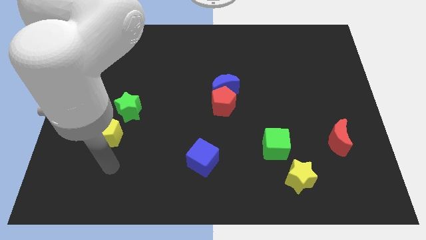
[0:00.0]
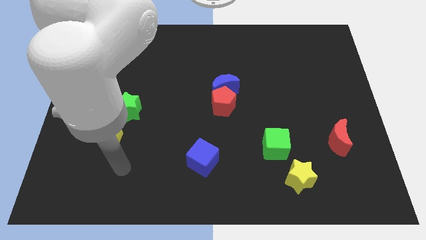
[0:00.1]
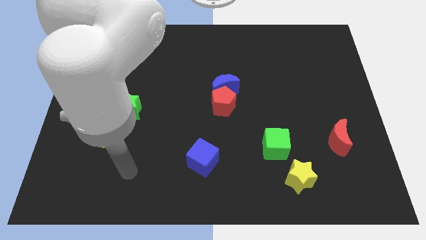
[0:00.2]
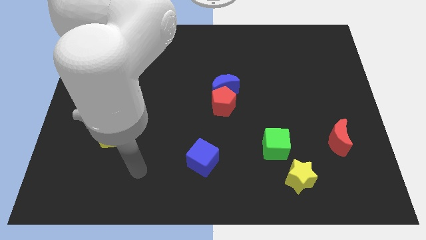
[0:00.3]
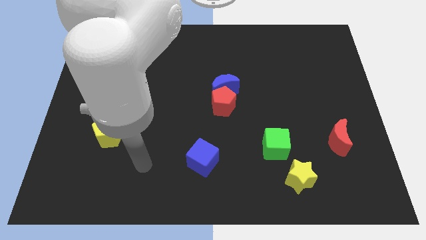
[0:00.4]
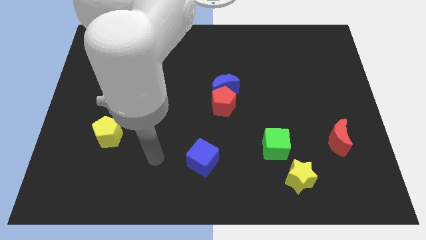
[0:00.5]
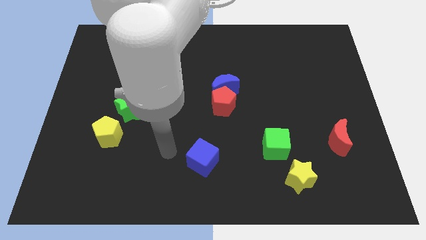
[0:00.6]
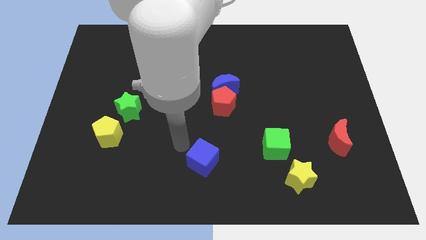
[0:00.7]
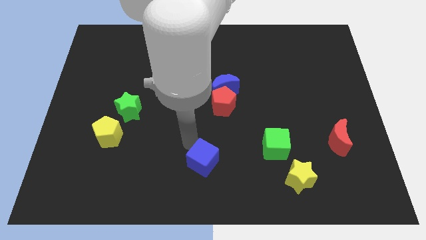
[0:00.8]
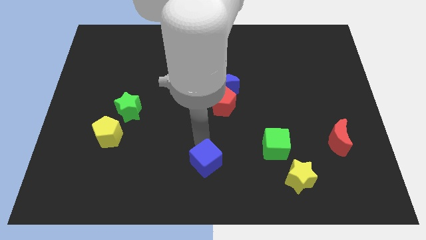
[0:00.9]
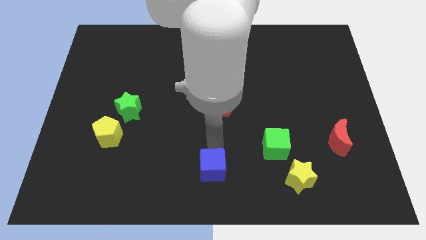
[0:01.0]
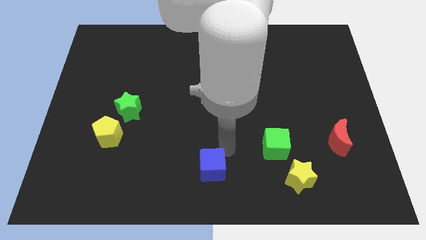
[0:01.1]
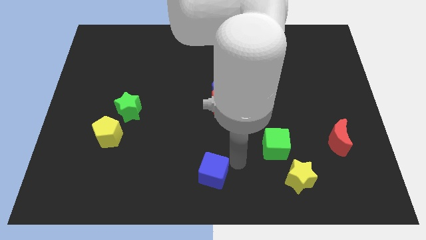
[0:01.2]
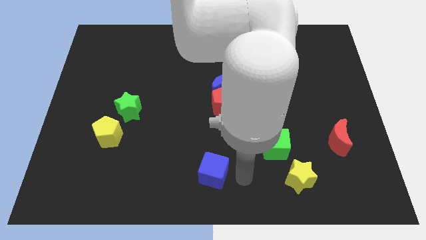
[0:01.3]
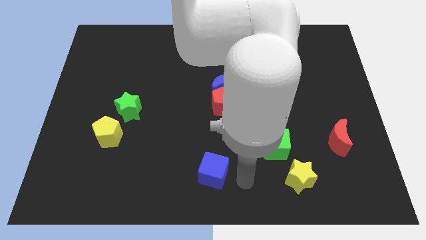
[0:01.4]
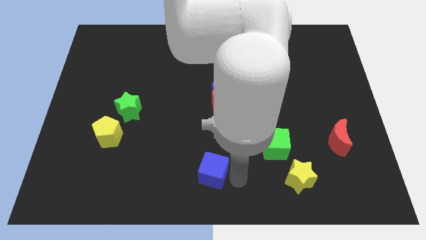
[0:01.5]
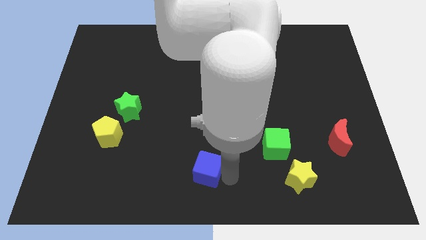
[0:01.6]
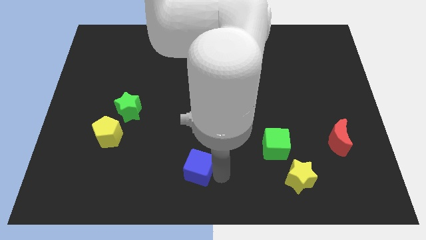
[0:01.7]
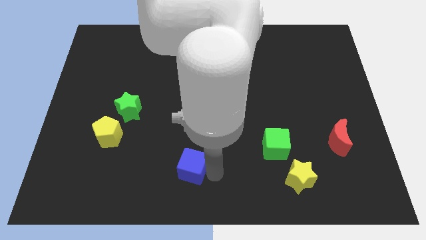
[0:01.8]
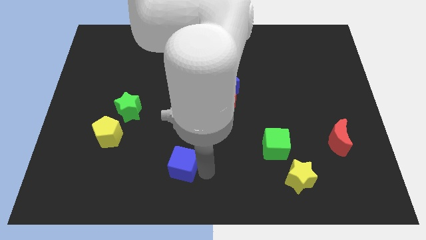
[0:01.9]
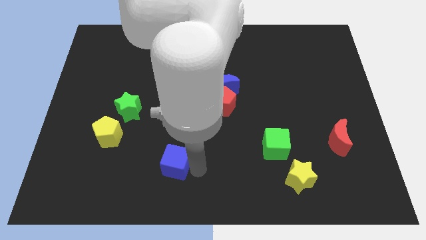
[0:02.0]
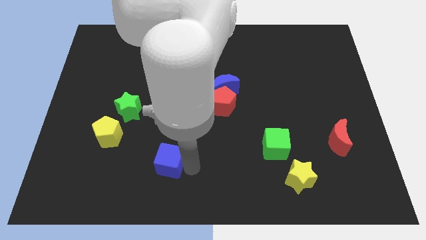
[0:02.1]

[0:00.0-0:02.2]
slightly push the blue cube left

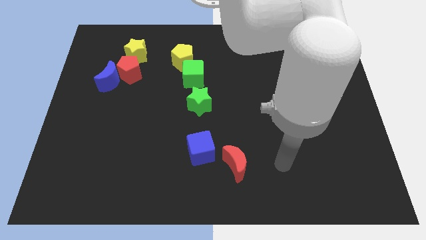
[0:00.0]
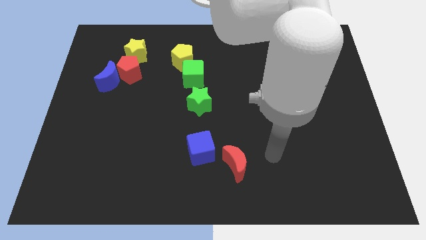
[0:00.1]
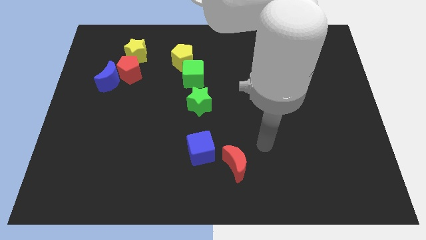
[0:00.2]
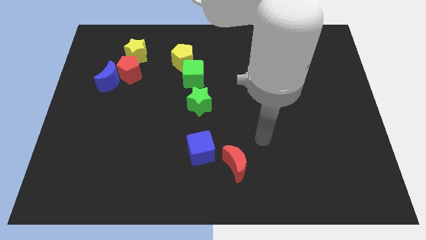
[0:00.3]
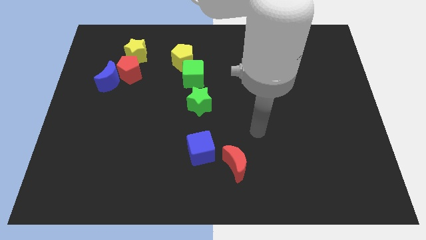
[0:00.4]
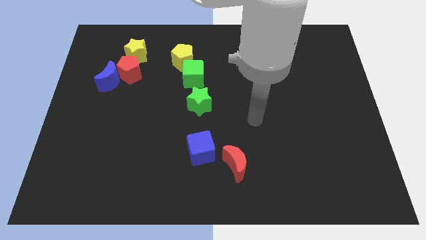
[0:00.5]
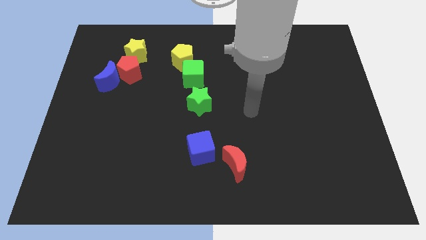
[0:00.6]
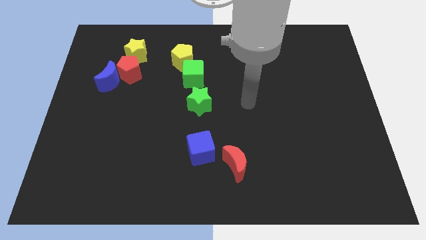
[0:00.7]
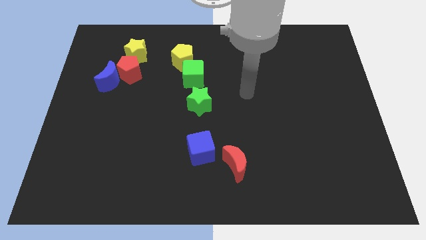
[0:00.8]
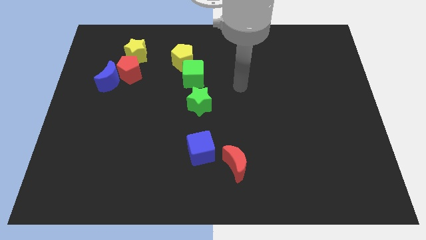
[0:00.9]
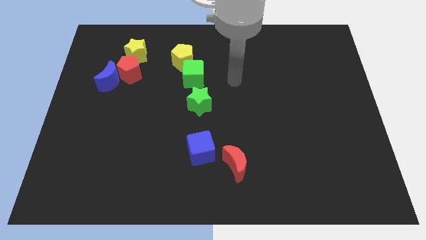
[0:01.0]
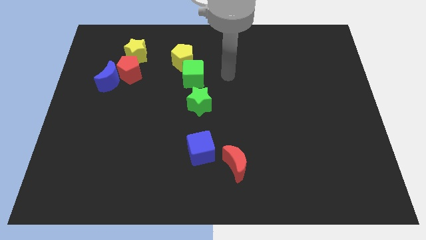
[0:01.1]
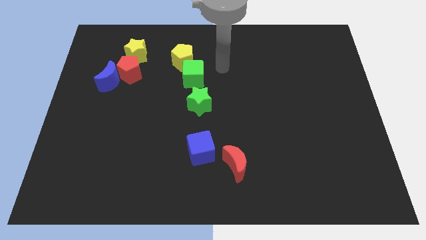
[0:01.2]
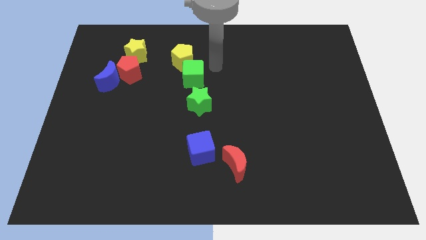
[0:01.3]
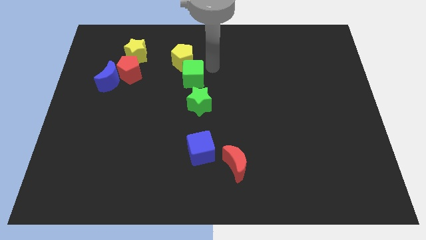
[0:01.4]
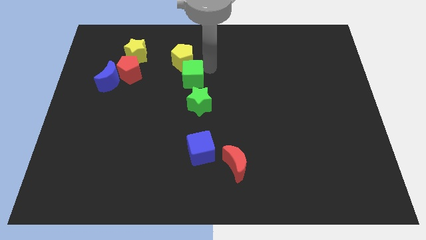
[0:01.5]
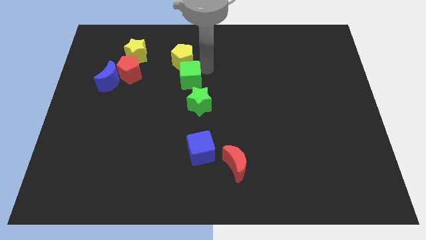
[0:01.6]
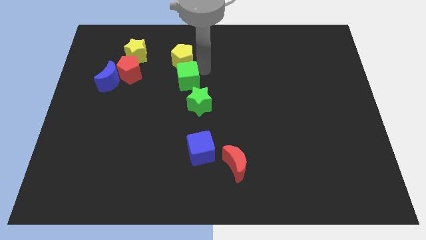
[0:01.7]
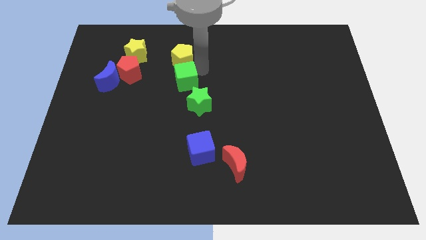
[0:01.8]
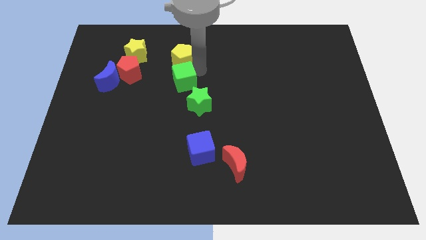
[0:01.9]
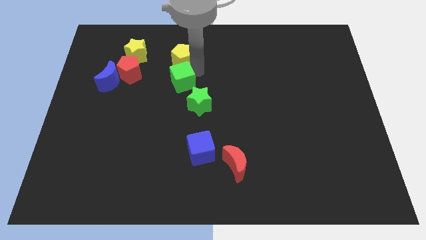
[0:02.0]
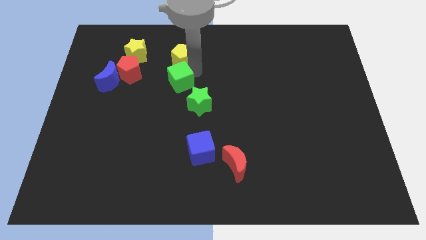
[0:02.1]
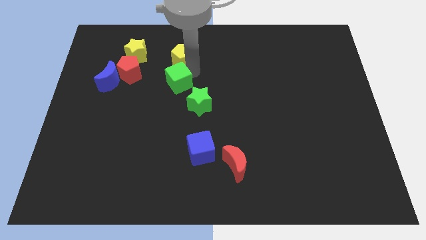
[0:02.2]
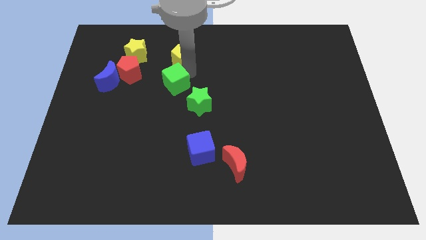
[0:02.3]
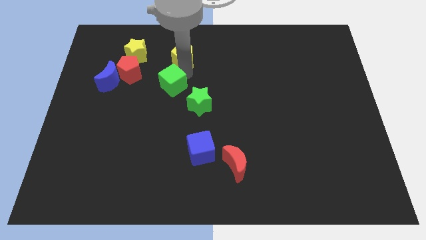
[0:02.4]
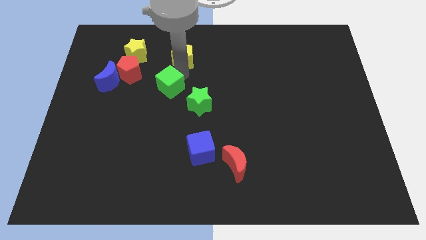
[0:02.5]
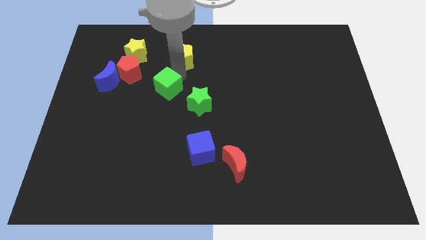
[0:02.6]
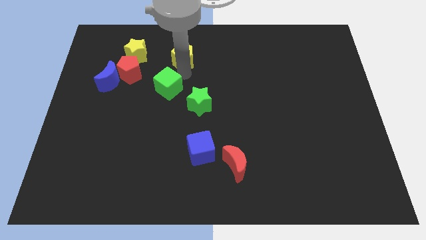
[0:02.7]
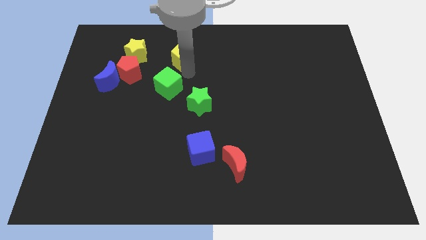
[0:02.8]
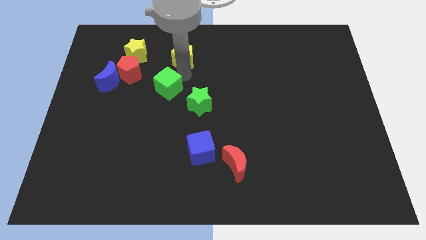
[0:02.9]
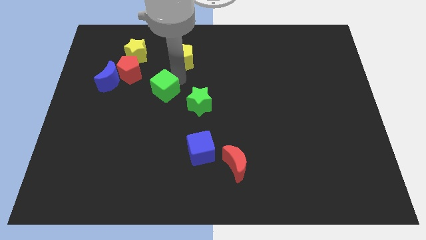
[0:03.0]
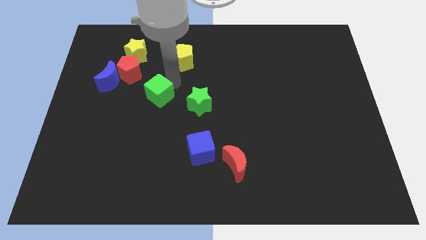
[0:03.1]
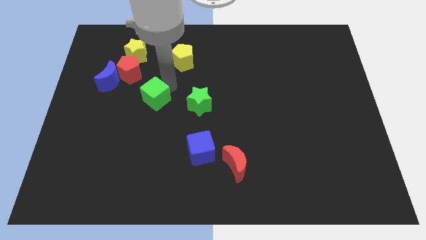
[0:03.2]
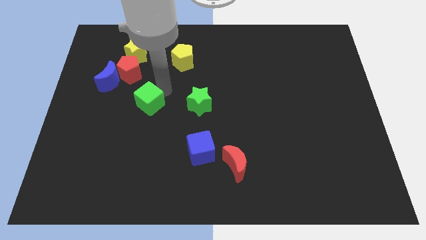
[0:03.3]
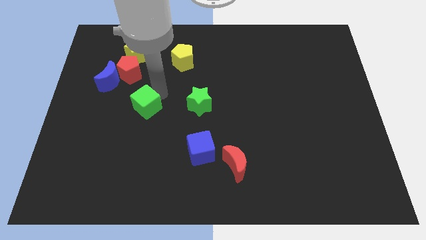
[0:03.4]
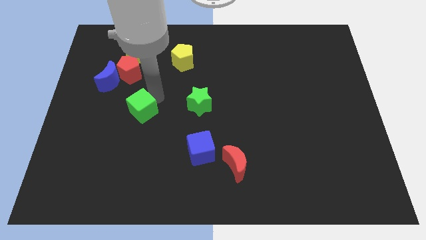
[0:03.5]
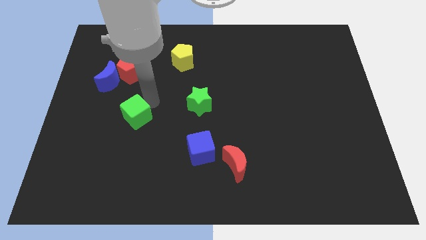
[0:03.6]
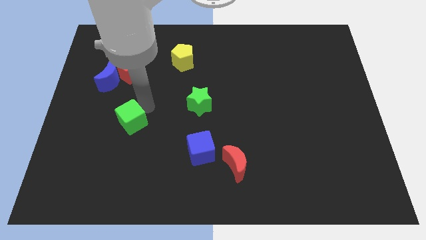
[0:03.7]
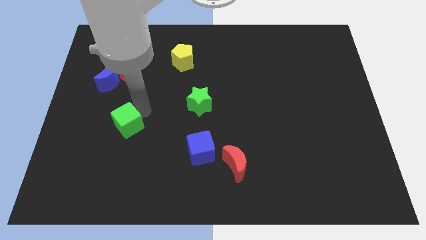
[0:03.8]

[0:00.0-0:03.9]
slide the green cube downwards and then to the left

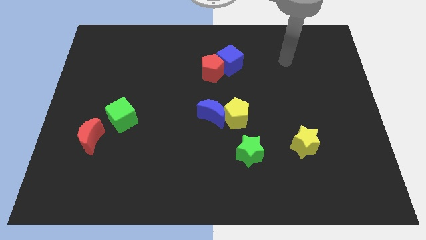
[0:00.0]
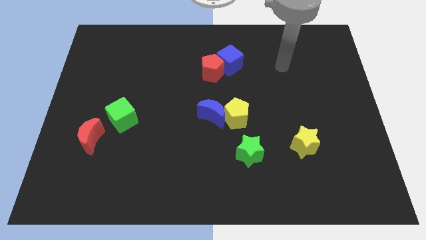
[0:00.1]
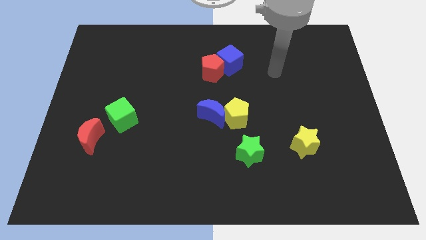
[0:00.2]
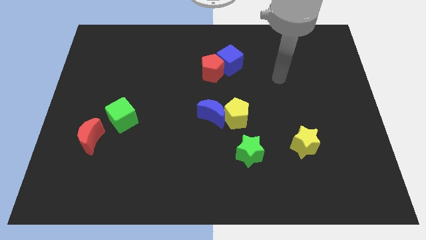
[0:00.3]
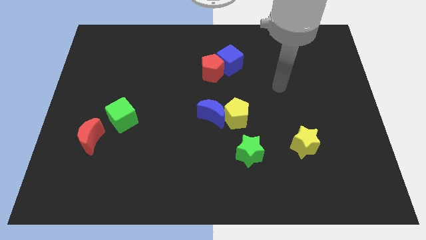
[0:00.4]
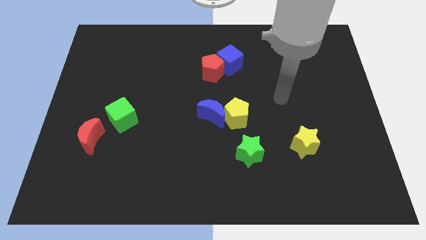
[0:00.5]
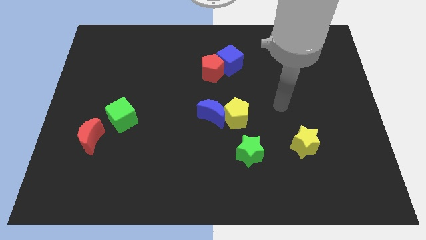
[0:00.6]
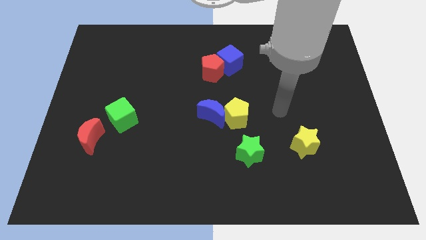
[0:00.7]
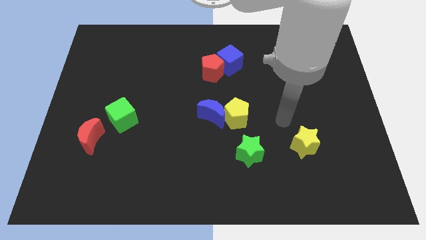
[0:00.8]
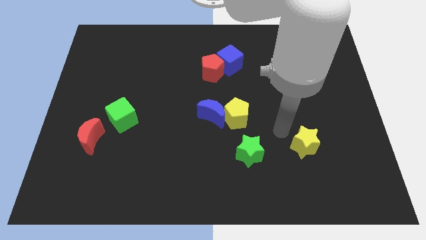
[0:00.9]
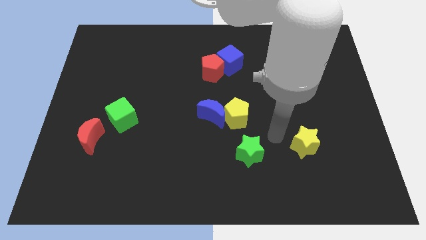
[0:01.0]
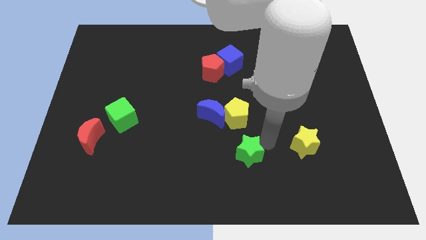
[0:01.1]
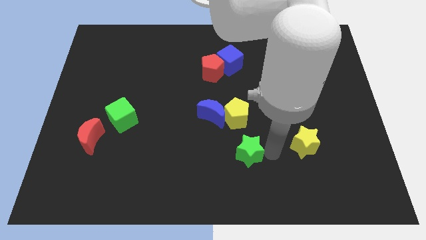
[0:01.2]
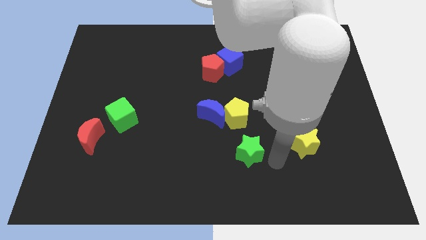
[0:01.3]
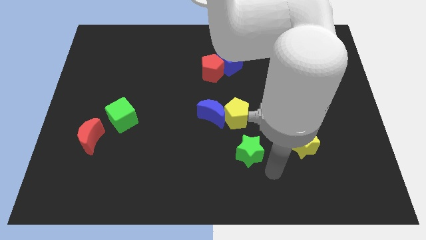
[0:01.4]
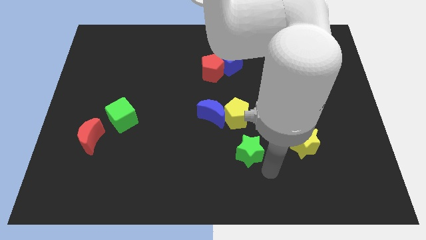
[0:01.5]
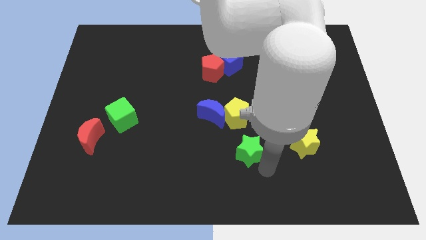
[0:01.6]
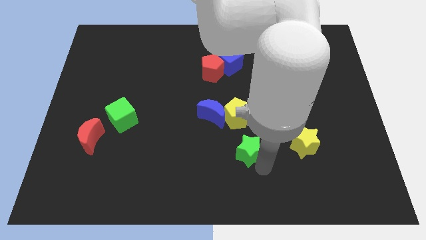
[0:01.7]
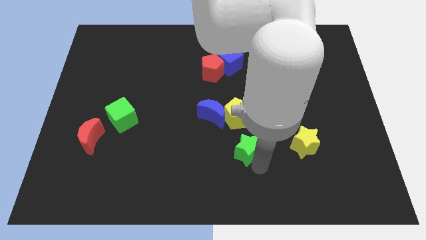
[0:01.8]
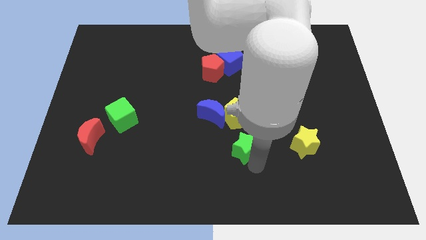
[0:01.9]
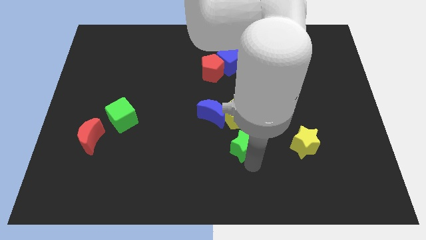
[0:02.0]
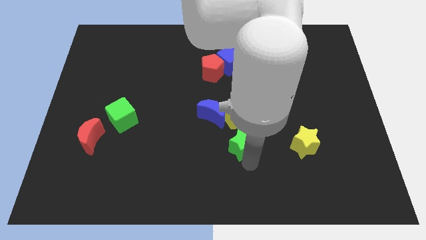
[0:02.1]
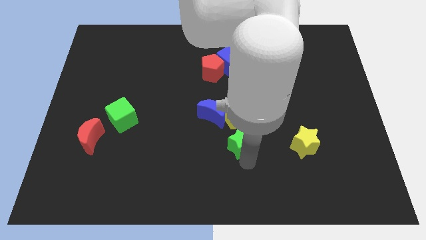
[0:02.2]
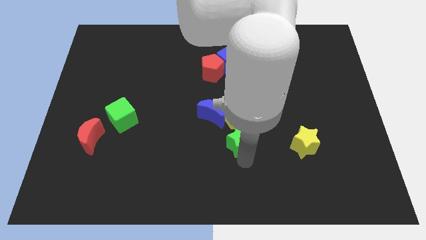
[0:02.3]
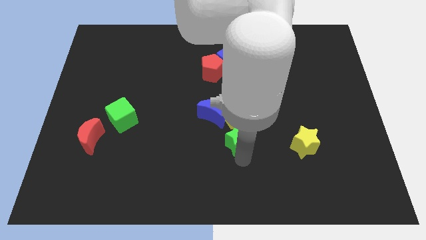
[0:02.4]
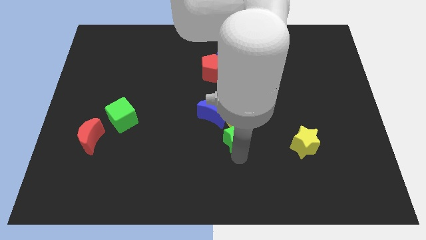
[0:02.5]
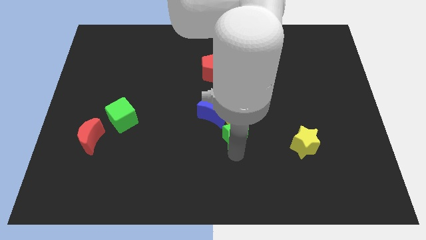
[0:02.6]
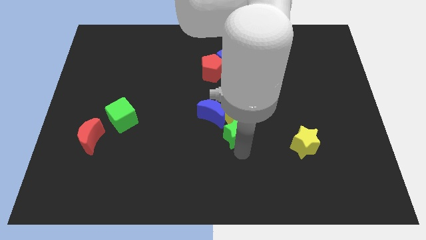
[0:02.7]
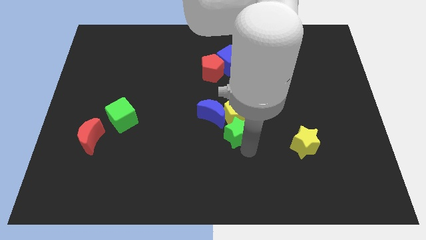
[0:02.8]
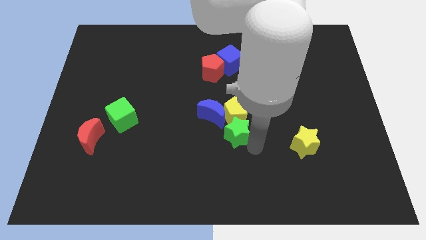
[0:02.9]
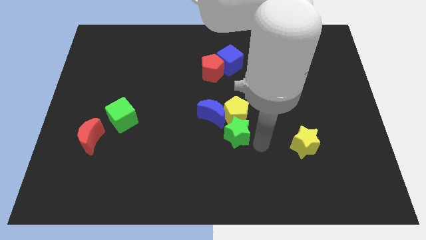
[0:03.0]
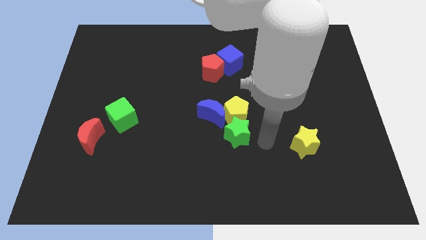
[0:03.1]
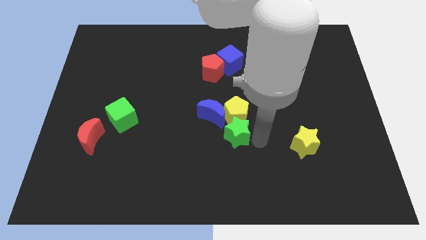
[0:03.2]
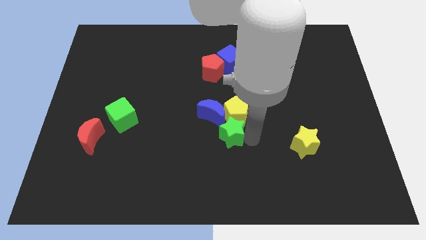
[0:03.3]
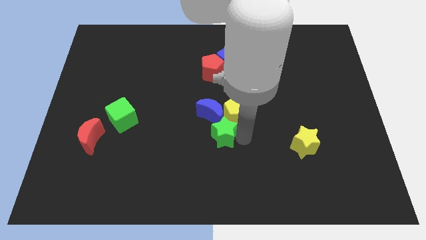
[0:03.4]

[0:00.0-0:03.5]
push the green star slightly diagonally up and to the left
